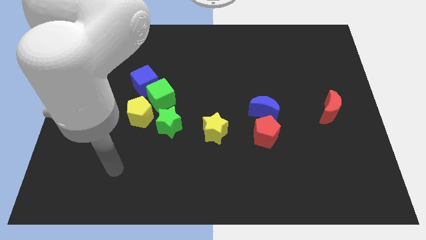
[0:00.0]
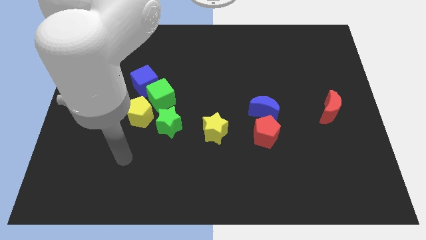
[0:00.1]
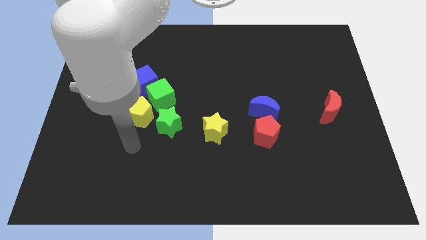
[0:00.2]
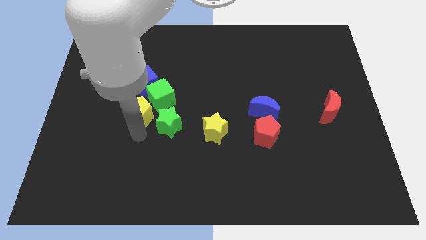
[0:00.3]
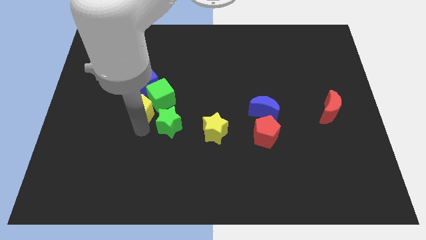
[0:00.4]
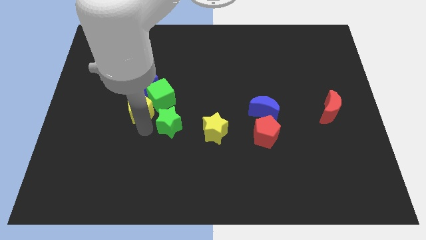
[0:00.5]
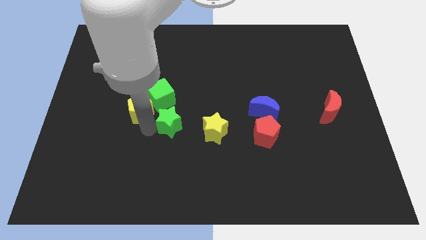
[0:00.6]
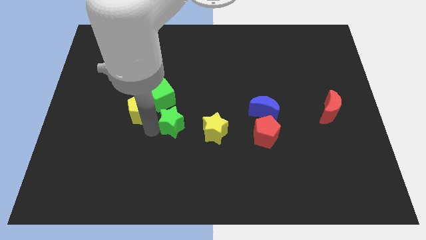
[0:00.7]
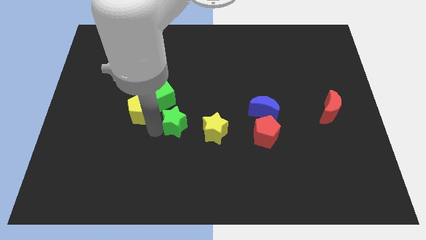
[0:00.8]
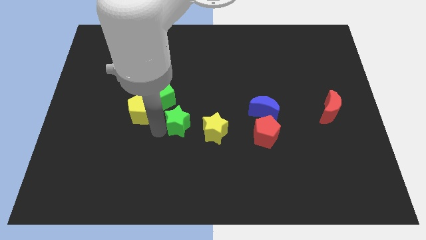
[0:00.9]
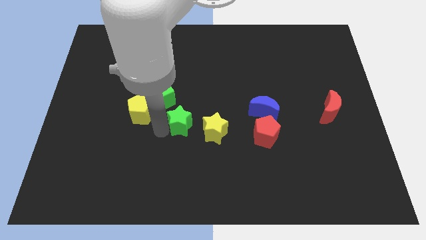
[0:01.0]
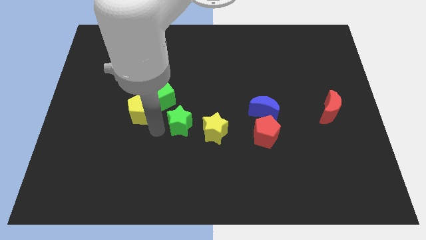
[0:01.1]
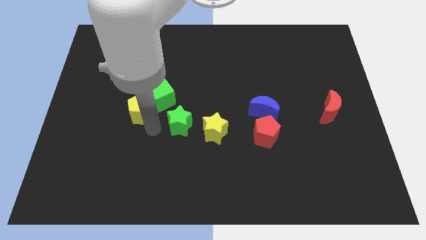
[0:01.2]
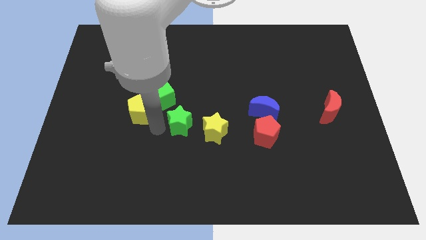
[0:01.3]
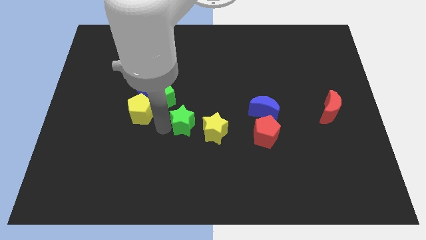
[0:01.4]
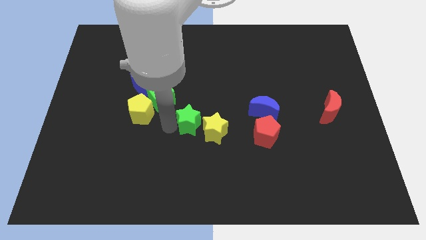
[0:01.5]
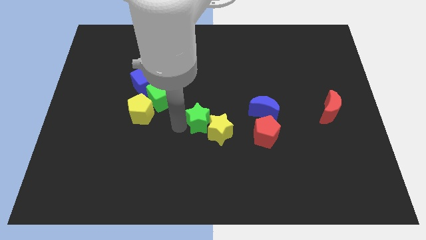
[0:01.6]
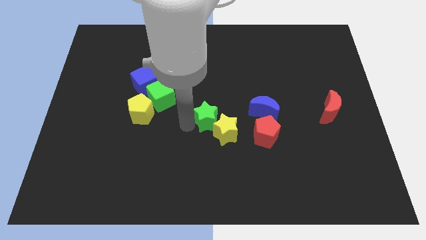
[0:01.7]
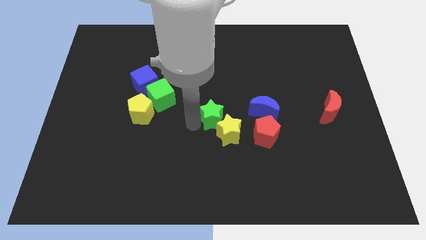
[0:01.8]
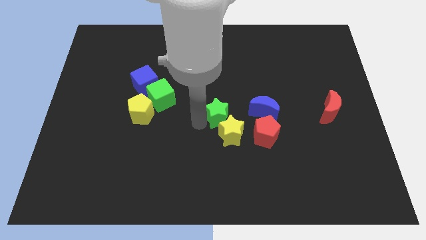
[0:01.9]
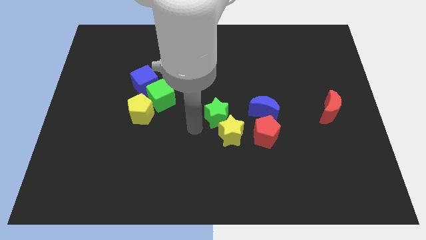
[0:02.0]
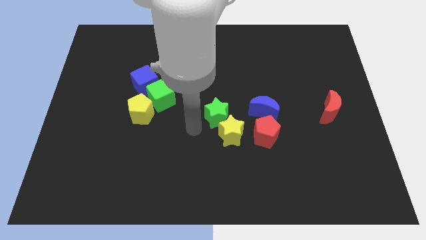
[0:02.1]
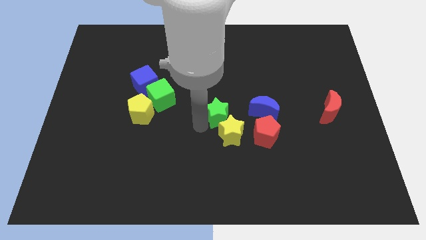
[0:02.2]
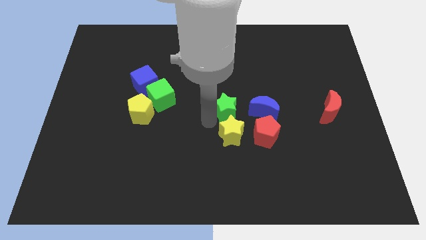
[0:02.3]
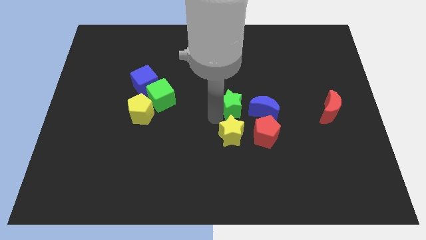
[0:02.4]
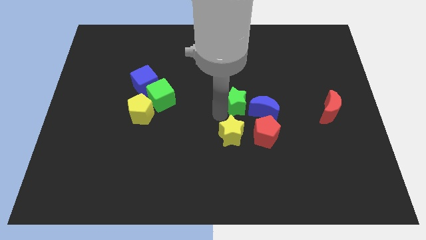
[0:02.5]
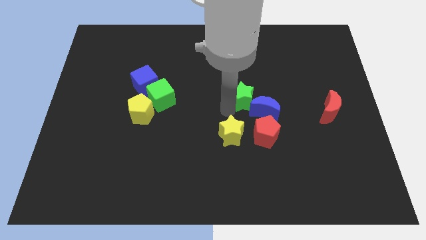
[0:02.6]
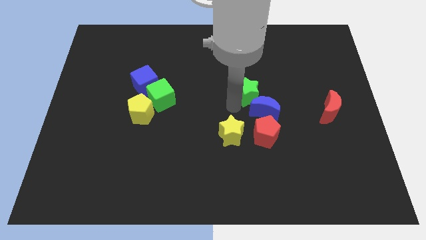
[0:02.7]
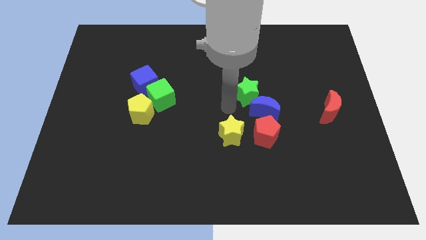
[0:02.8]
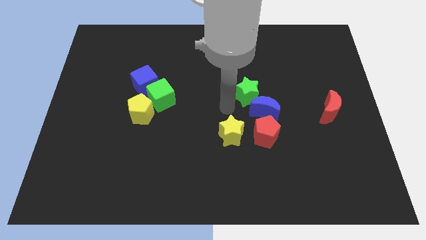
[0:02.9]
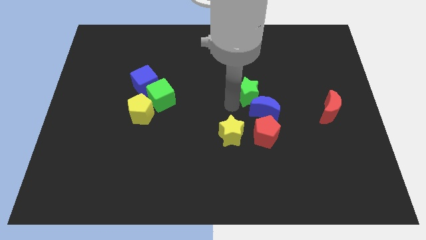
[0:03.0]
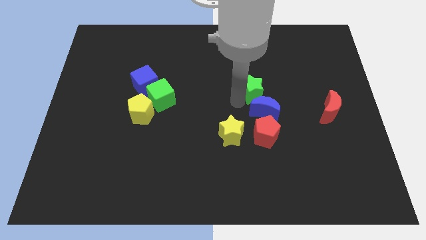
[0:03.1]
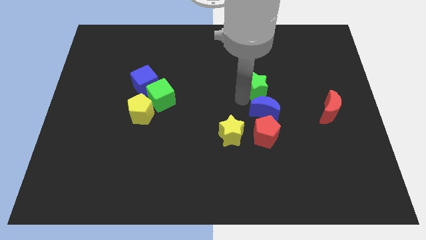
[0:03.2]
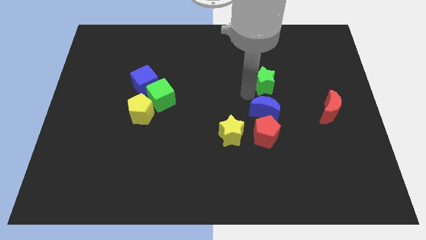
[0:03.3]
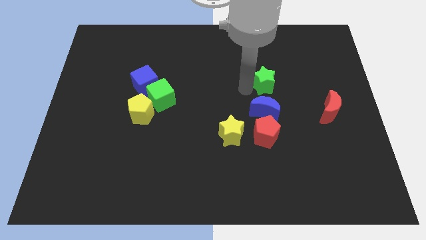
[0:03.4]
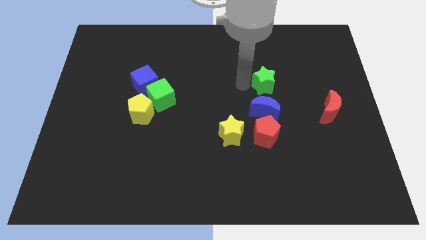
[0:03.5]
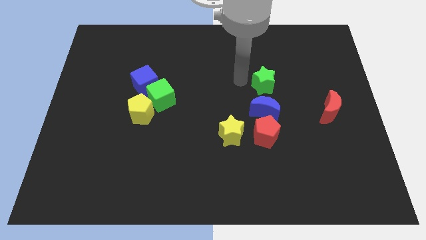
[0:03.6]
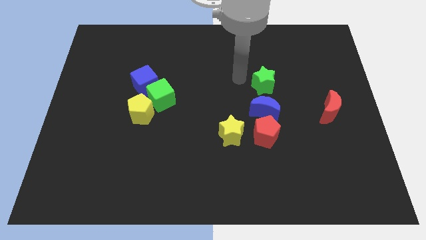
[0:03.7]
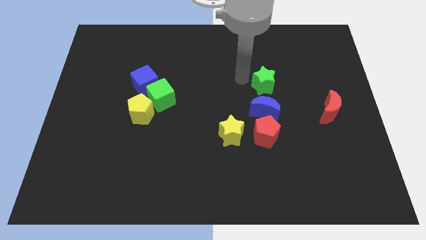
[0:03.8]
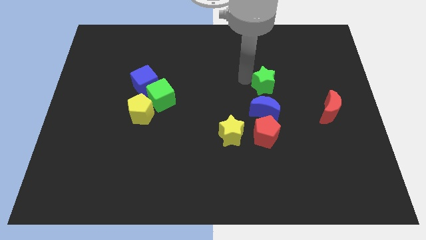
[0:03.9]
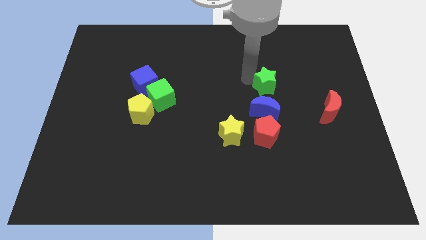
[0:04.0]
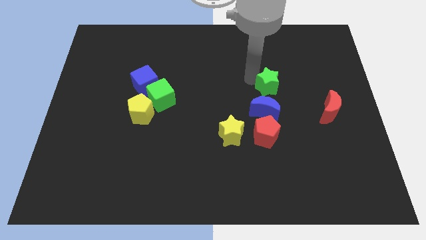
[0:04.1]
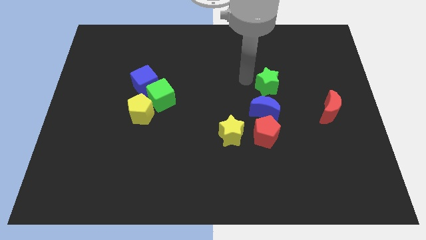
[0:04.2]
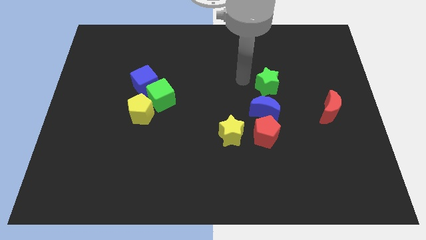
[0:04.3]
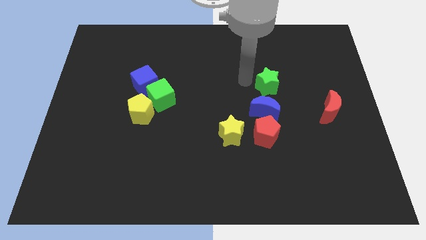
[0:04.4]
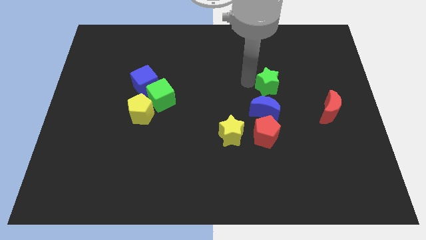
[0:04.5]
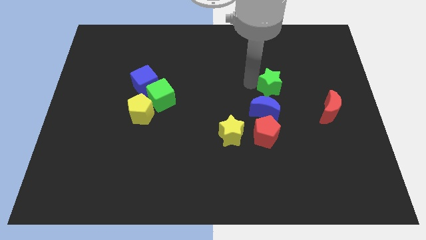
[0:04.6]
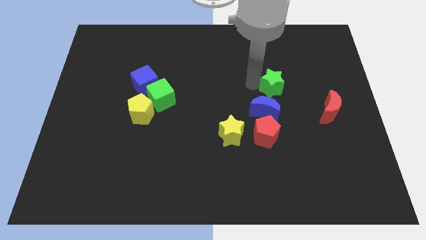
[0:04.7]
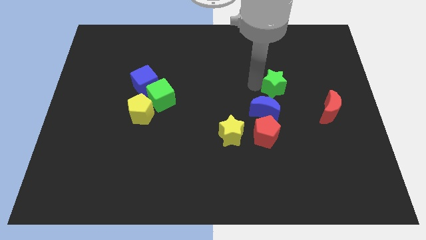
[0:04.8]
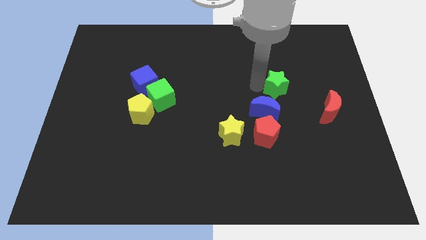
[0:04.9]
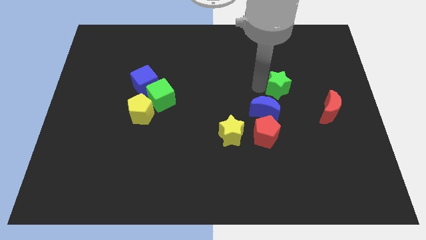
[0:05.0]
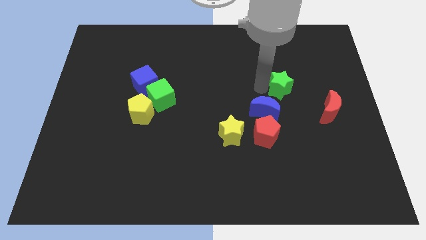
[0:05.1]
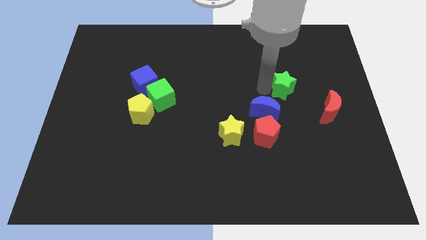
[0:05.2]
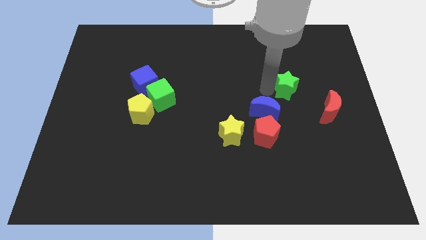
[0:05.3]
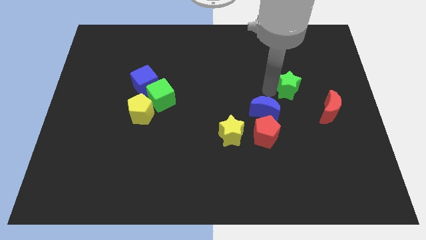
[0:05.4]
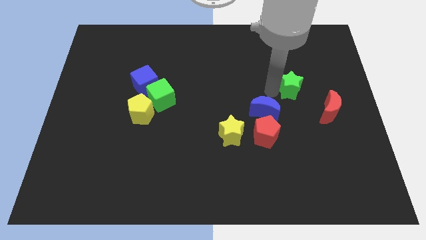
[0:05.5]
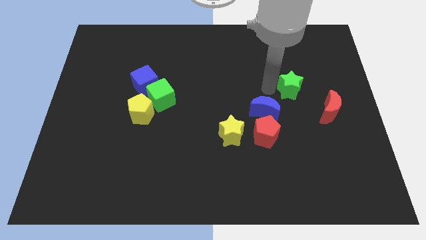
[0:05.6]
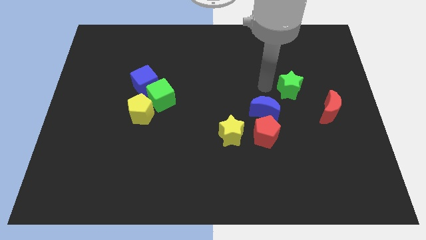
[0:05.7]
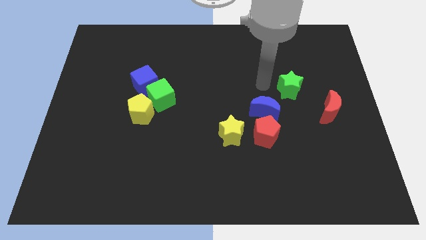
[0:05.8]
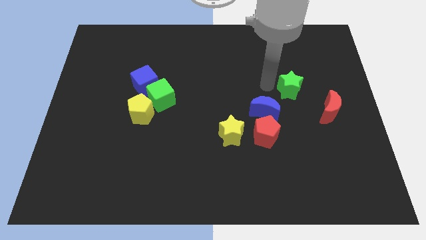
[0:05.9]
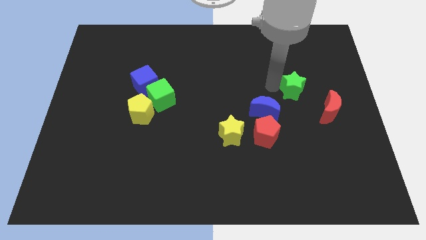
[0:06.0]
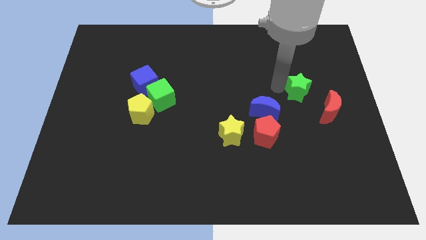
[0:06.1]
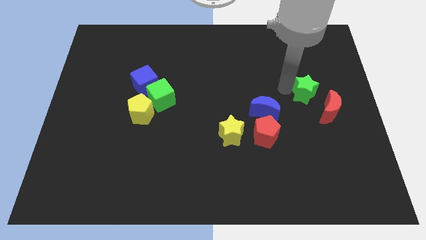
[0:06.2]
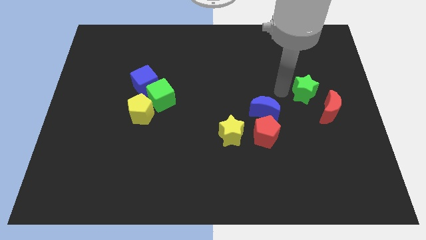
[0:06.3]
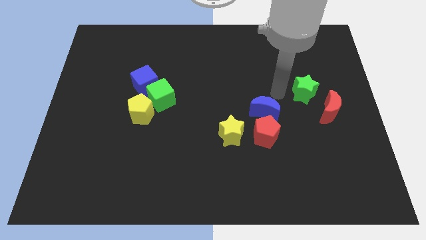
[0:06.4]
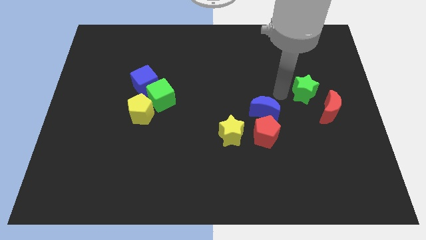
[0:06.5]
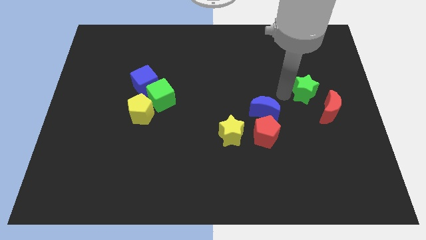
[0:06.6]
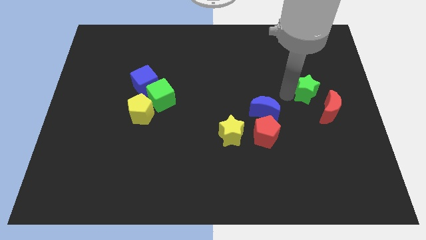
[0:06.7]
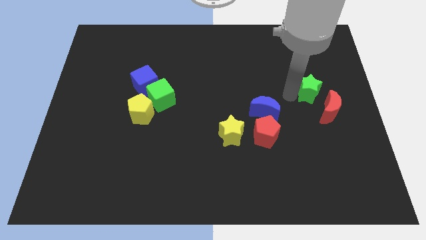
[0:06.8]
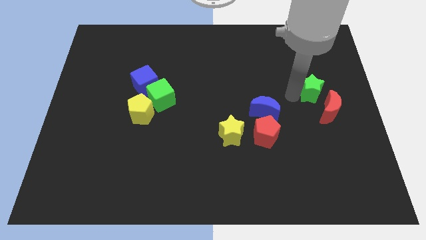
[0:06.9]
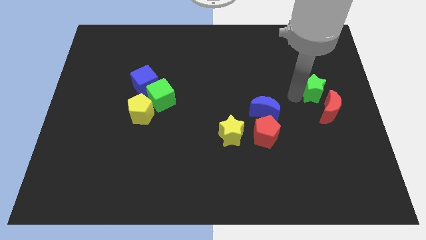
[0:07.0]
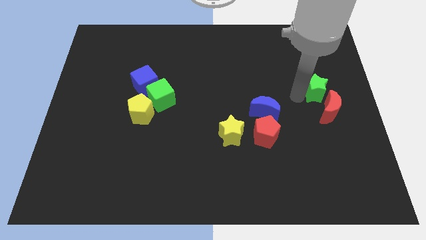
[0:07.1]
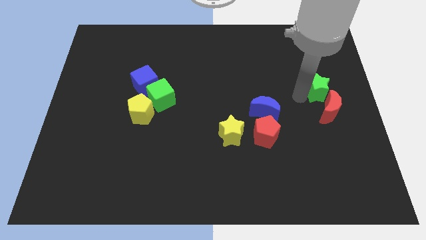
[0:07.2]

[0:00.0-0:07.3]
slide the green star to the right side of the board
